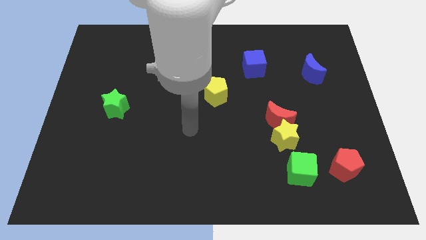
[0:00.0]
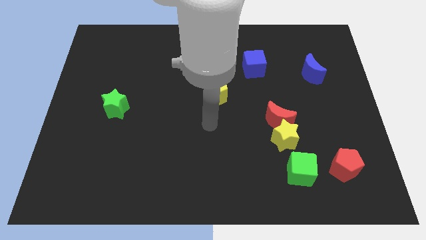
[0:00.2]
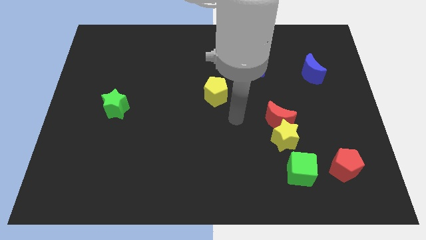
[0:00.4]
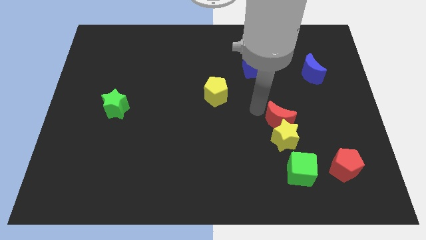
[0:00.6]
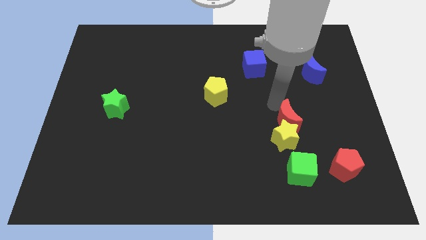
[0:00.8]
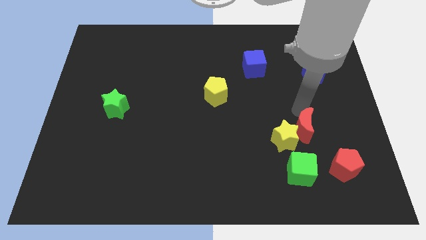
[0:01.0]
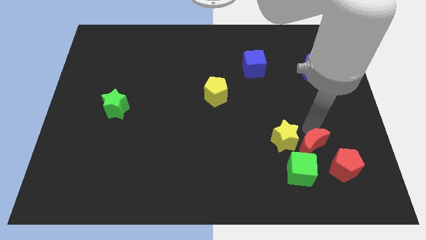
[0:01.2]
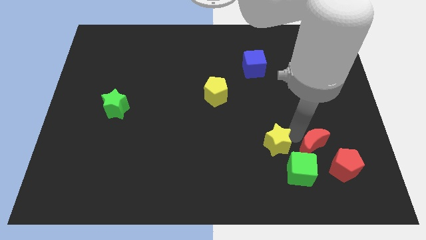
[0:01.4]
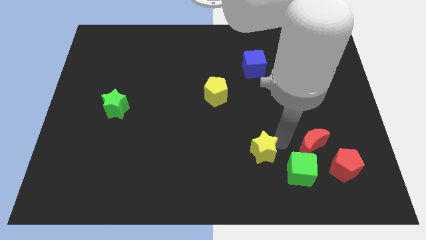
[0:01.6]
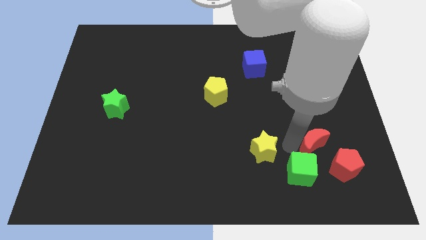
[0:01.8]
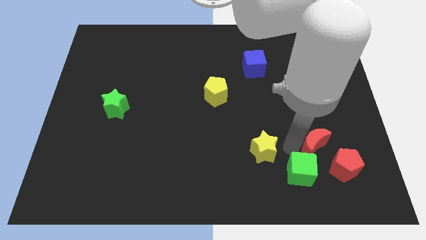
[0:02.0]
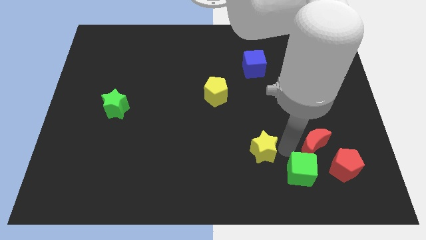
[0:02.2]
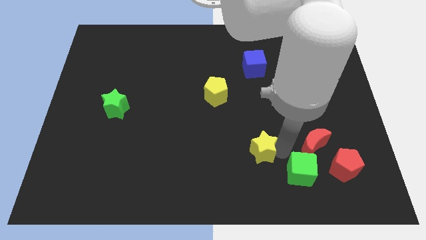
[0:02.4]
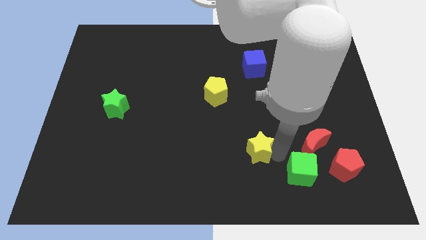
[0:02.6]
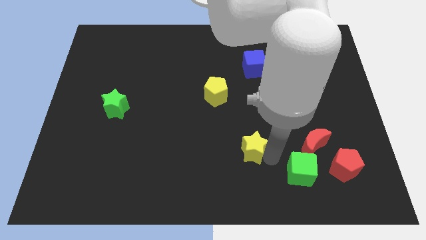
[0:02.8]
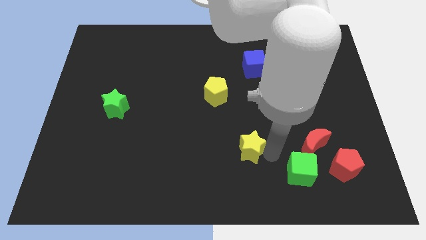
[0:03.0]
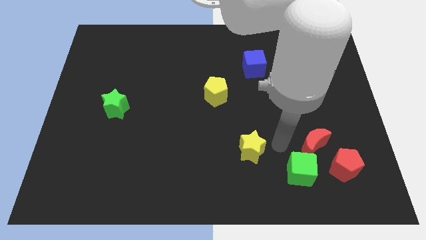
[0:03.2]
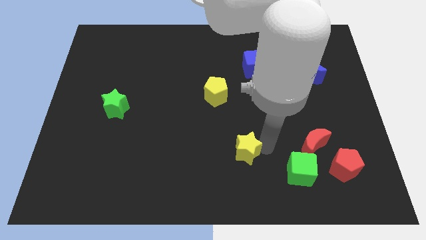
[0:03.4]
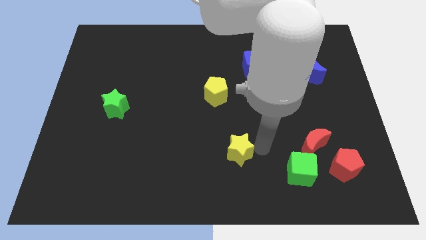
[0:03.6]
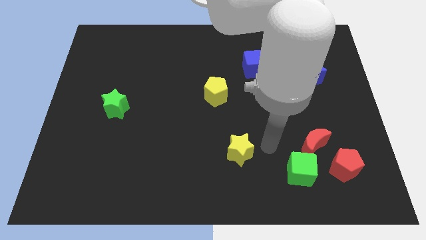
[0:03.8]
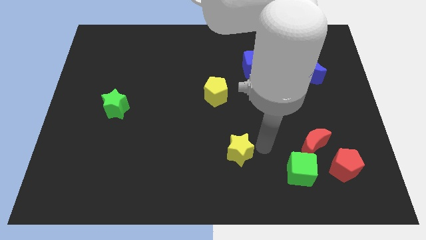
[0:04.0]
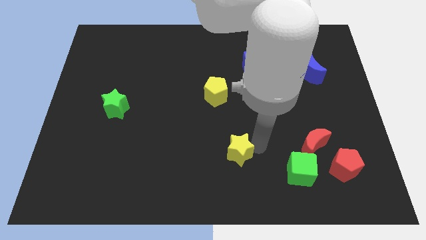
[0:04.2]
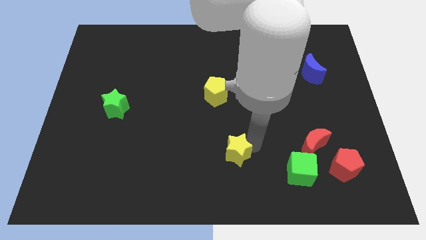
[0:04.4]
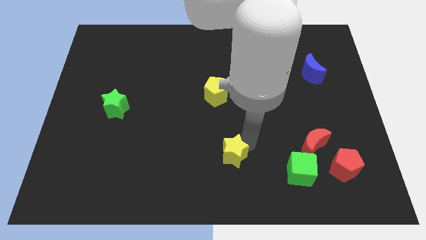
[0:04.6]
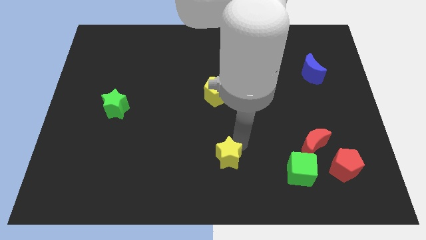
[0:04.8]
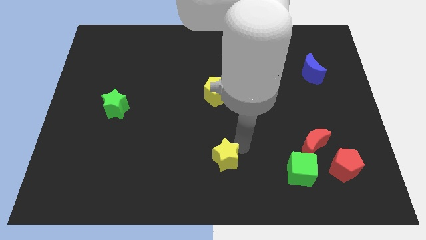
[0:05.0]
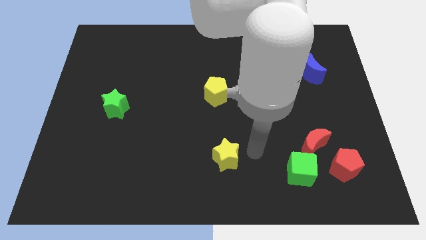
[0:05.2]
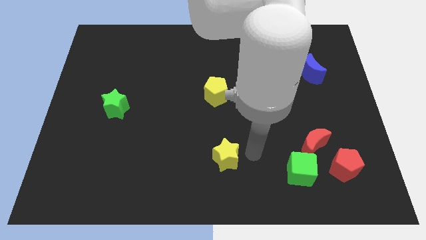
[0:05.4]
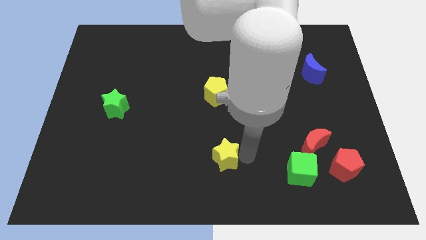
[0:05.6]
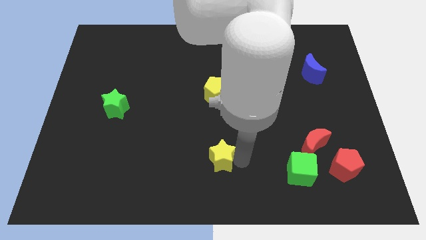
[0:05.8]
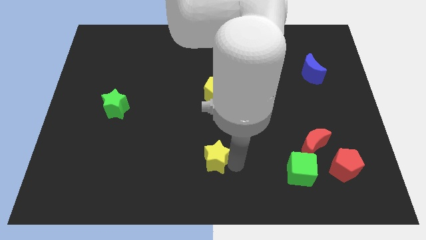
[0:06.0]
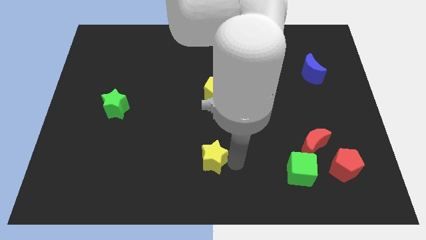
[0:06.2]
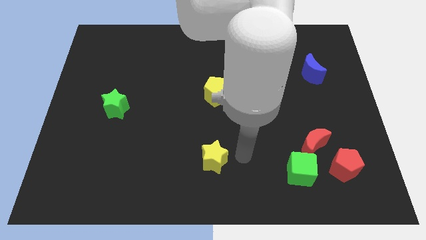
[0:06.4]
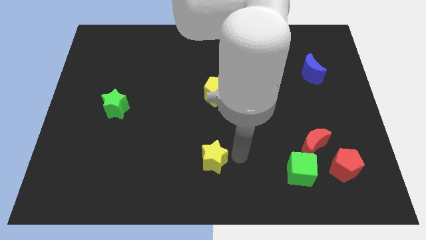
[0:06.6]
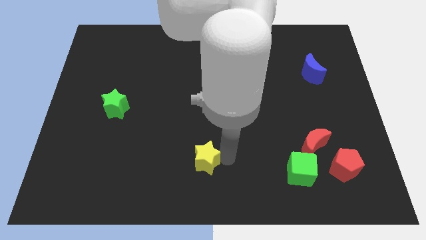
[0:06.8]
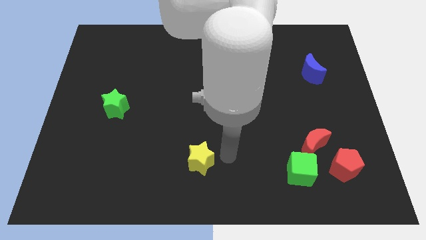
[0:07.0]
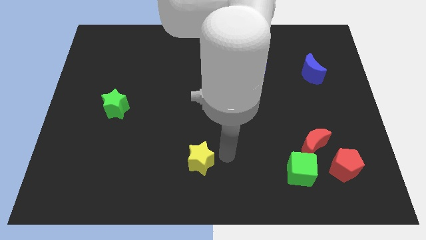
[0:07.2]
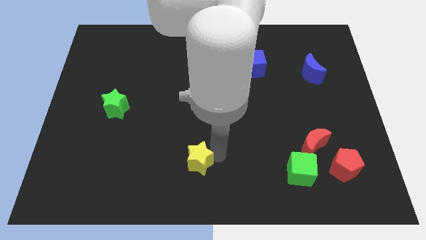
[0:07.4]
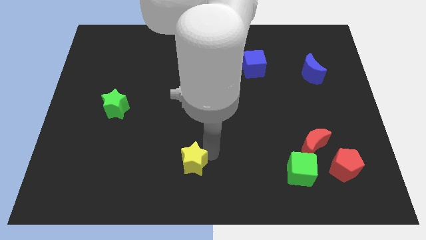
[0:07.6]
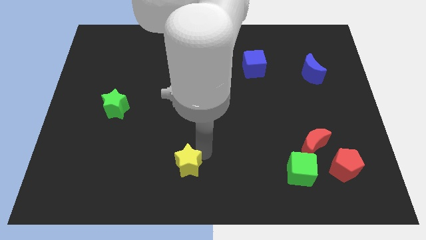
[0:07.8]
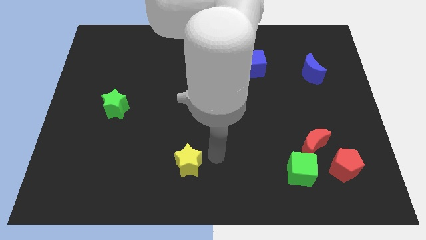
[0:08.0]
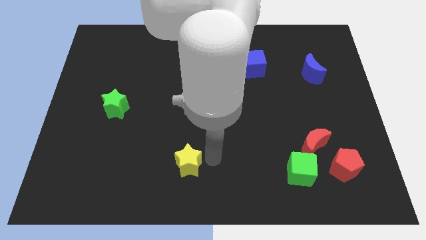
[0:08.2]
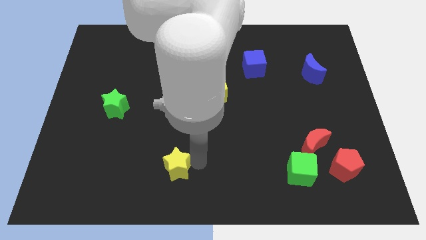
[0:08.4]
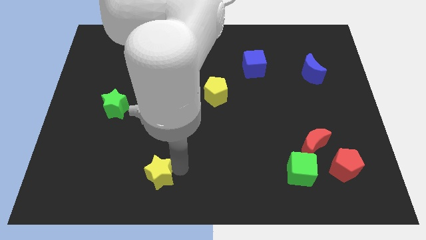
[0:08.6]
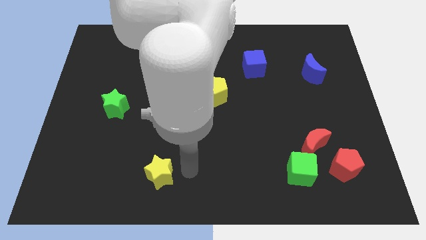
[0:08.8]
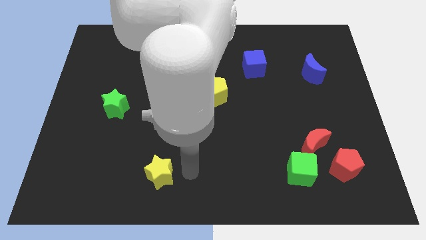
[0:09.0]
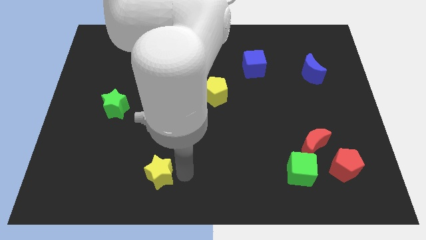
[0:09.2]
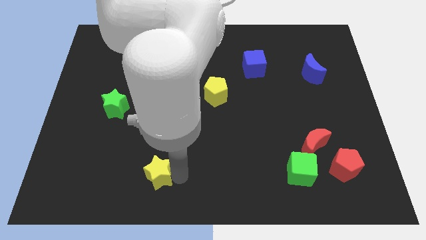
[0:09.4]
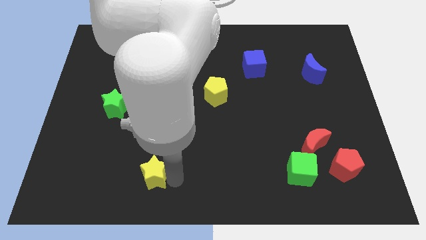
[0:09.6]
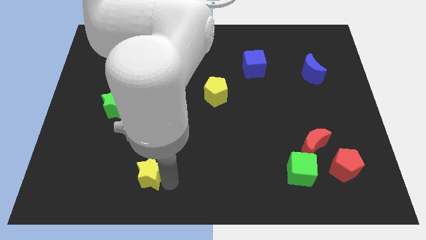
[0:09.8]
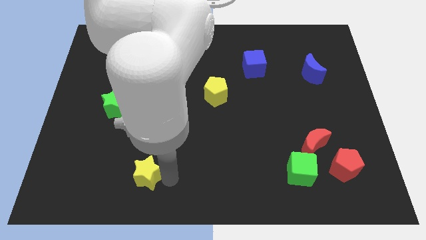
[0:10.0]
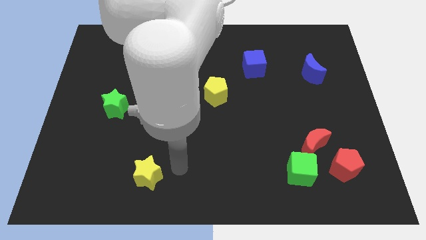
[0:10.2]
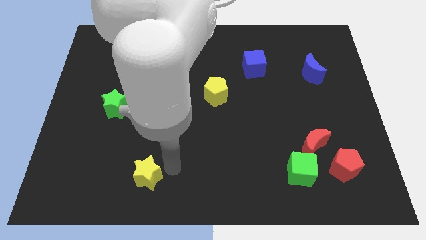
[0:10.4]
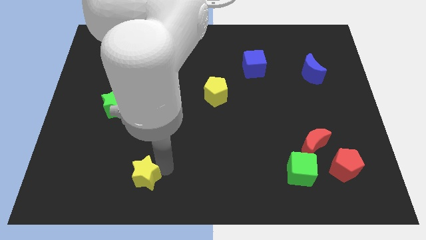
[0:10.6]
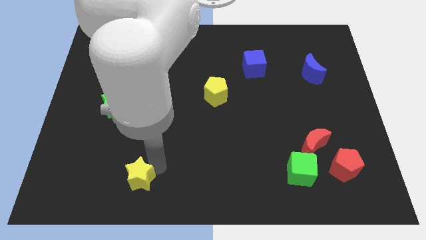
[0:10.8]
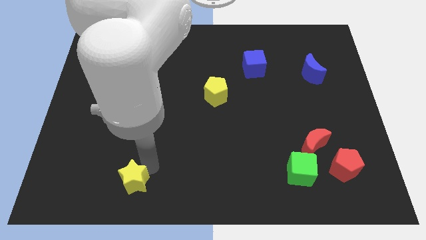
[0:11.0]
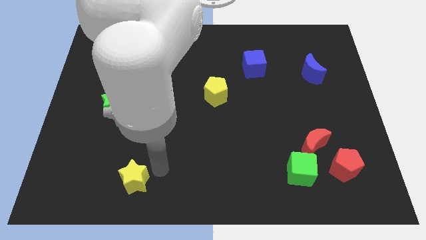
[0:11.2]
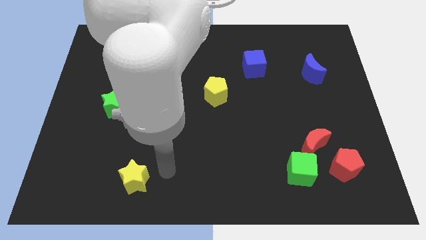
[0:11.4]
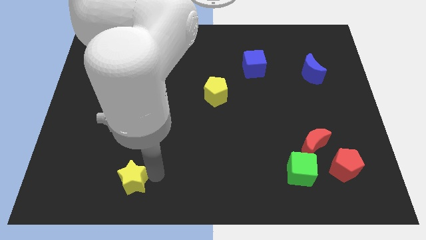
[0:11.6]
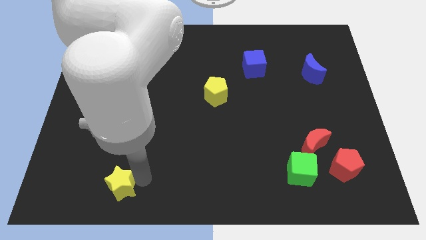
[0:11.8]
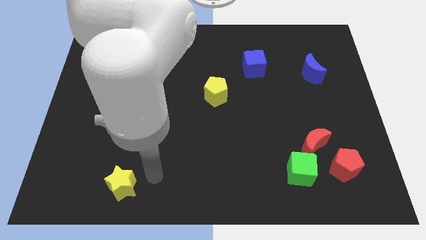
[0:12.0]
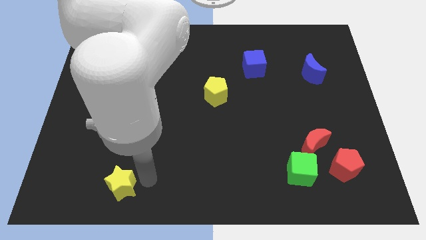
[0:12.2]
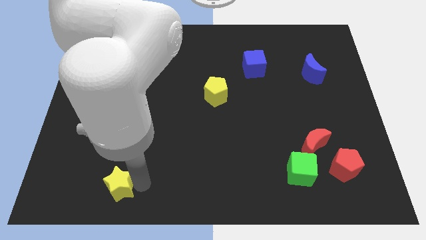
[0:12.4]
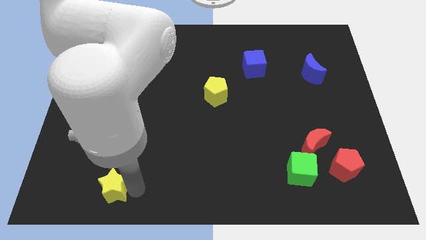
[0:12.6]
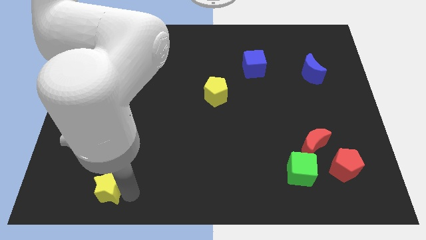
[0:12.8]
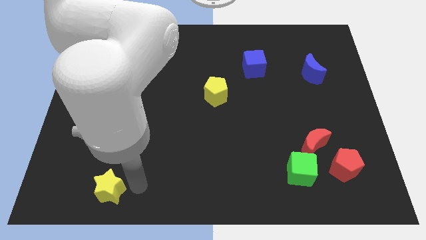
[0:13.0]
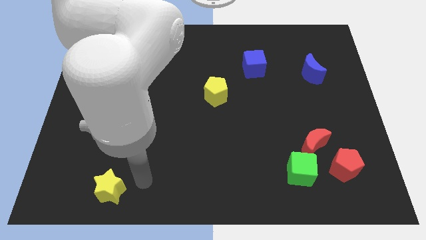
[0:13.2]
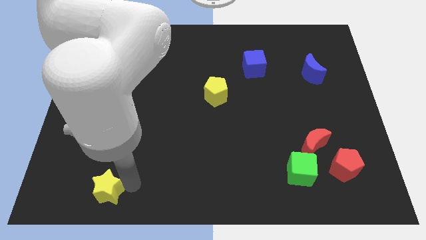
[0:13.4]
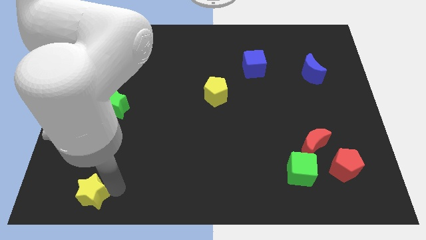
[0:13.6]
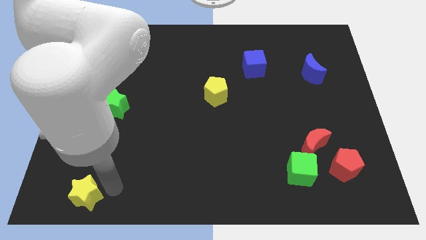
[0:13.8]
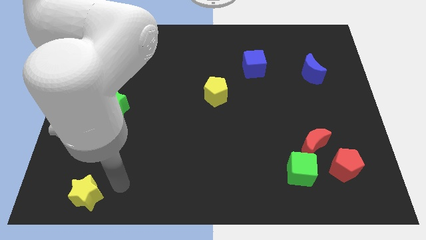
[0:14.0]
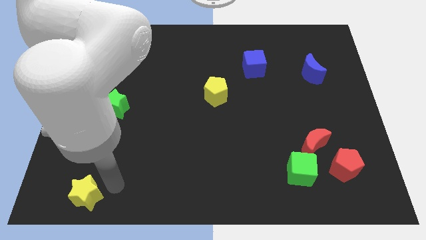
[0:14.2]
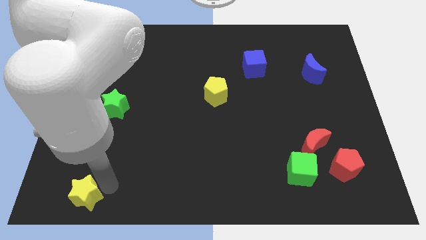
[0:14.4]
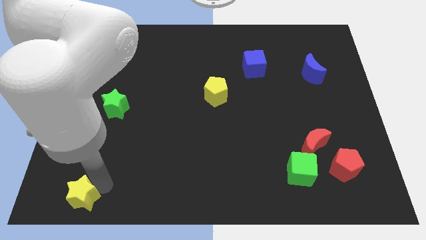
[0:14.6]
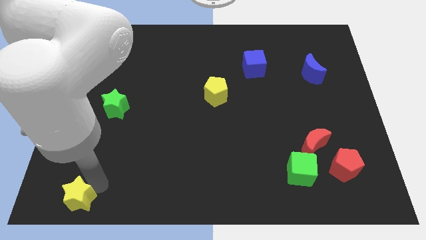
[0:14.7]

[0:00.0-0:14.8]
move the yellow star to the bottom left corner
